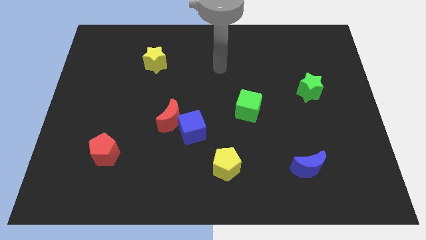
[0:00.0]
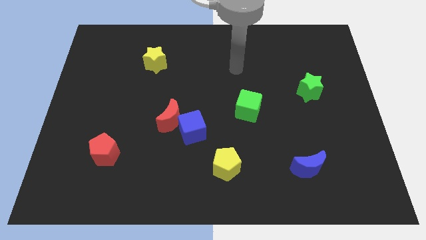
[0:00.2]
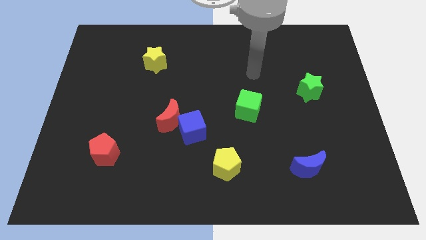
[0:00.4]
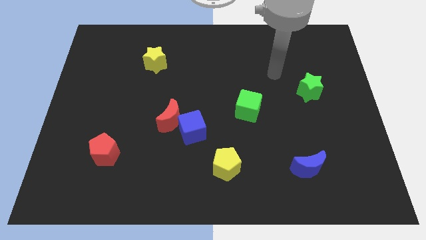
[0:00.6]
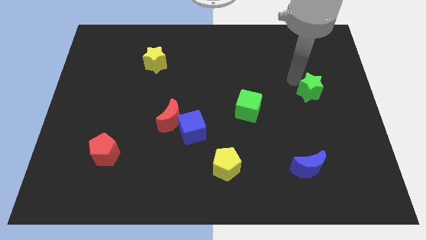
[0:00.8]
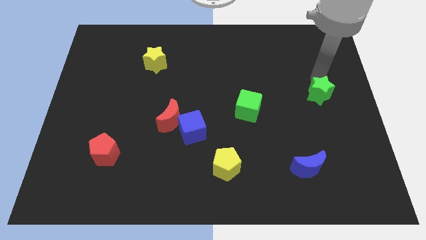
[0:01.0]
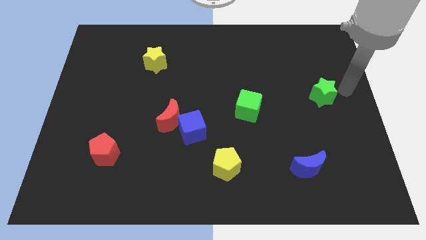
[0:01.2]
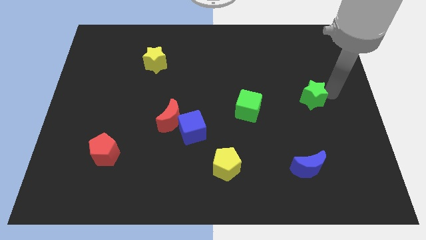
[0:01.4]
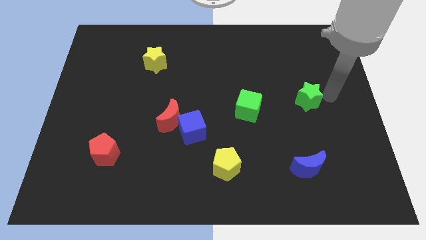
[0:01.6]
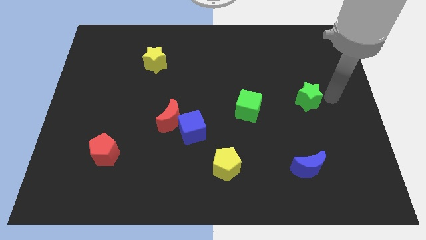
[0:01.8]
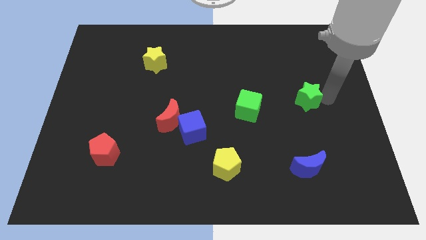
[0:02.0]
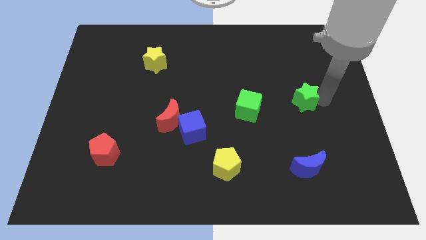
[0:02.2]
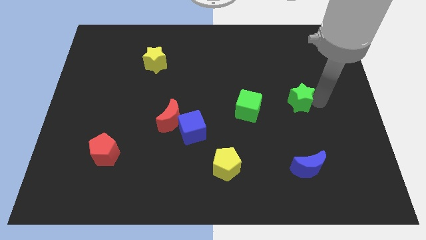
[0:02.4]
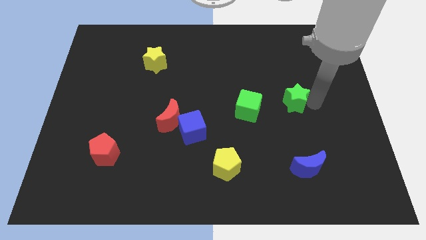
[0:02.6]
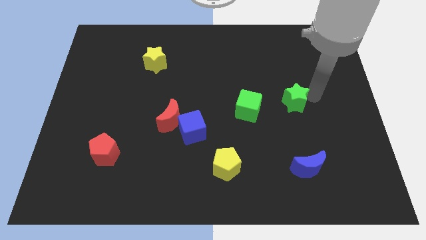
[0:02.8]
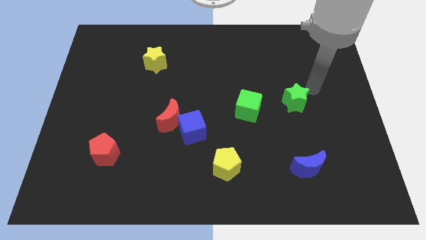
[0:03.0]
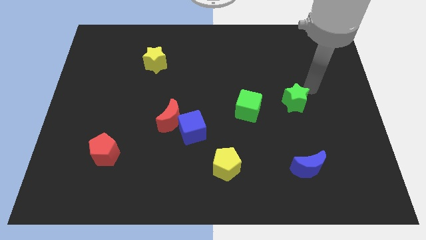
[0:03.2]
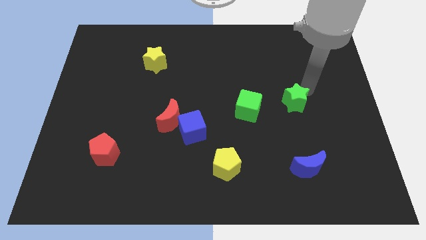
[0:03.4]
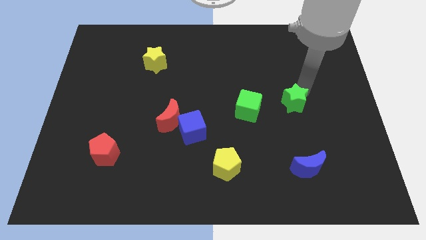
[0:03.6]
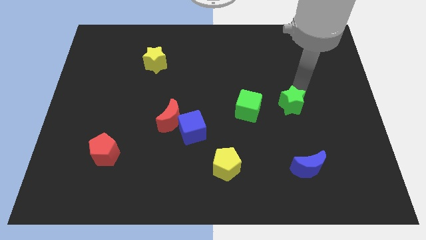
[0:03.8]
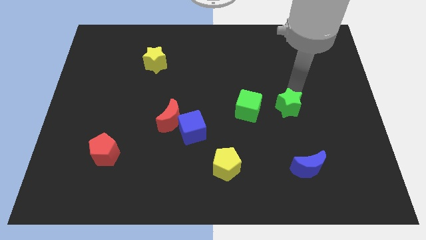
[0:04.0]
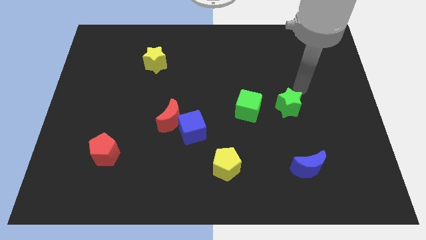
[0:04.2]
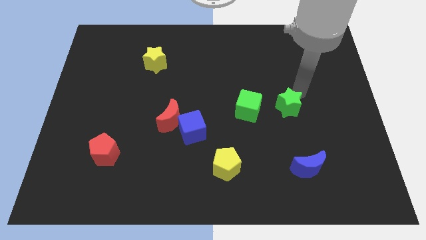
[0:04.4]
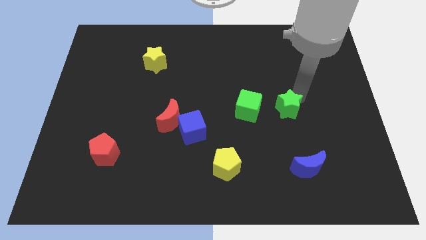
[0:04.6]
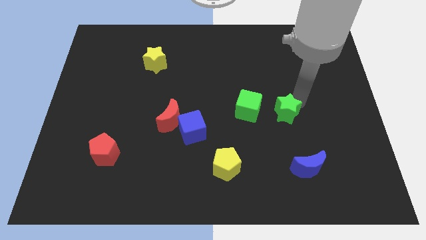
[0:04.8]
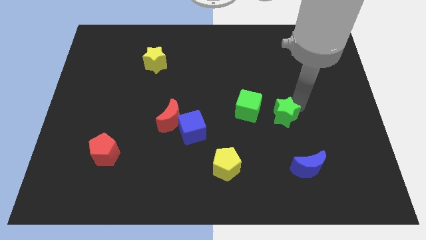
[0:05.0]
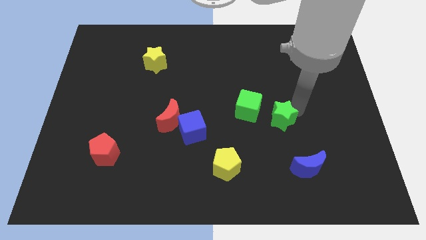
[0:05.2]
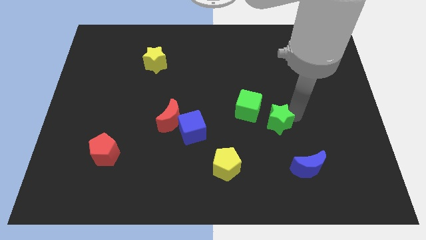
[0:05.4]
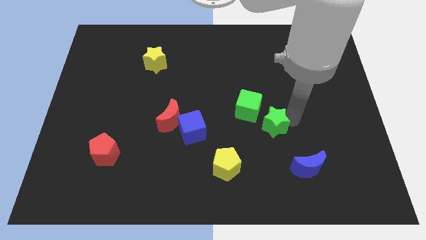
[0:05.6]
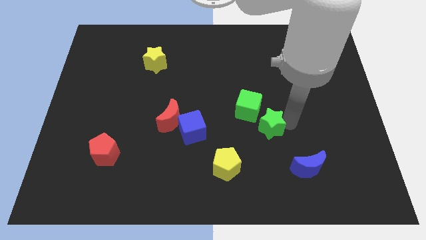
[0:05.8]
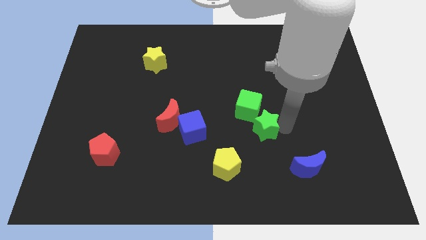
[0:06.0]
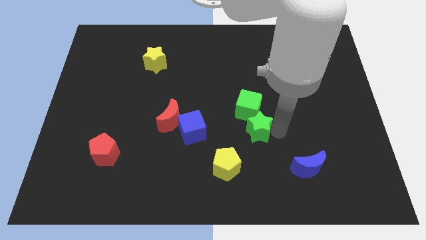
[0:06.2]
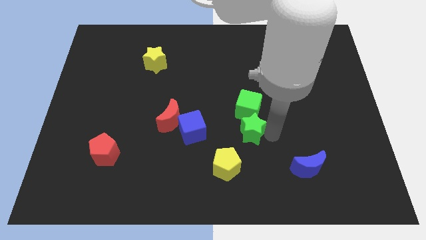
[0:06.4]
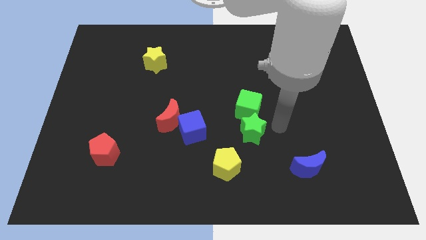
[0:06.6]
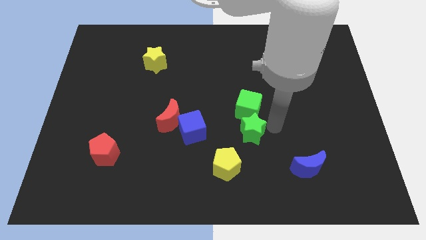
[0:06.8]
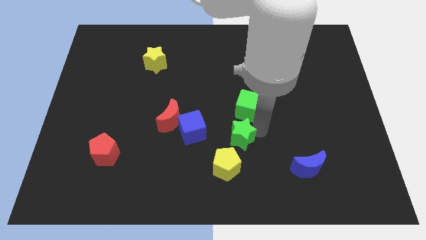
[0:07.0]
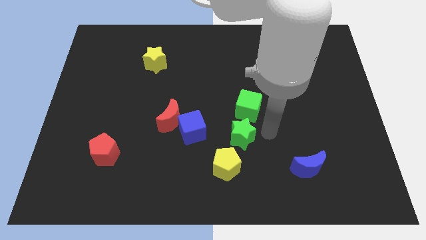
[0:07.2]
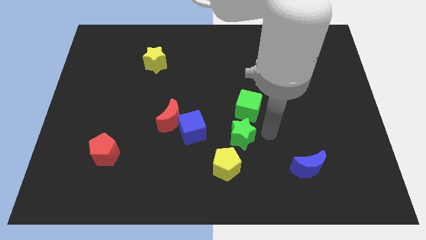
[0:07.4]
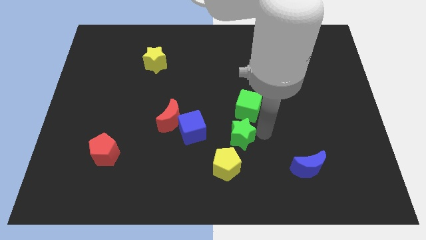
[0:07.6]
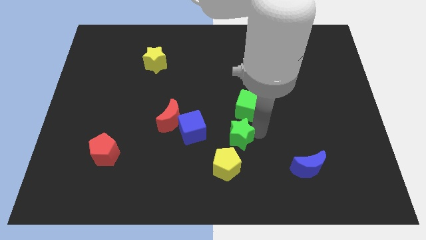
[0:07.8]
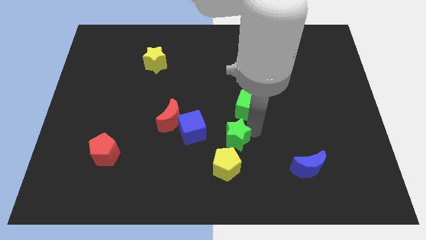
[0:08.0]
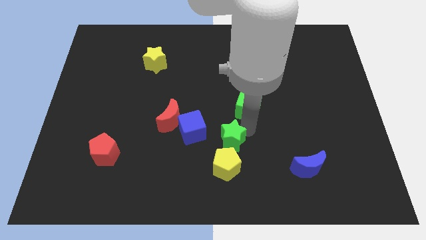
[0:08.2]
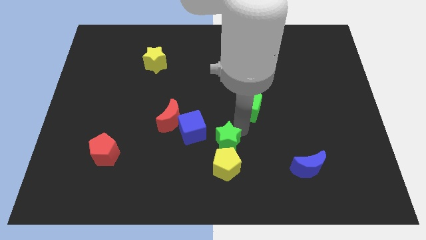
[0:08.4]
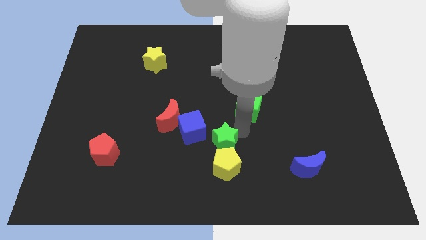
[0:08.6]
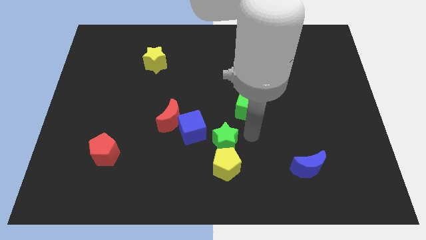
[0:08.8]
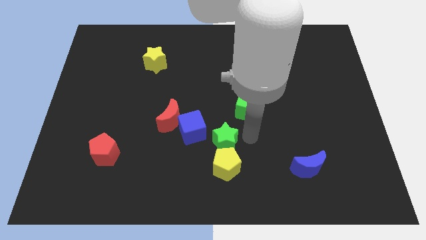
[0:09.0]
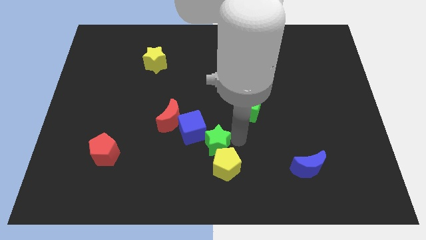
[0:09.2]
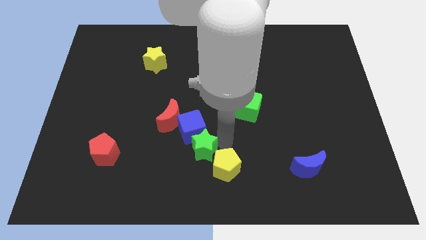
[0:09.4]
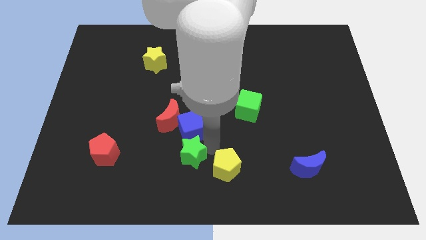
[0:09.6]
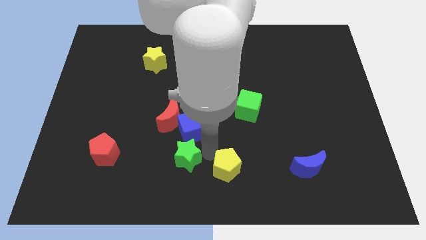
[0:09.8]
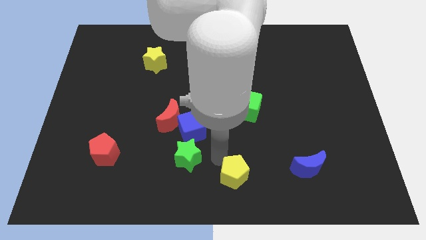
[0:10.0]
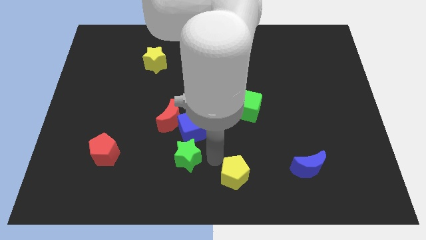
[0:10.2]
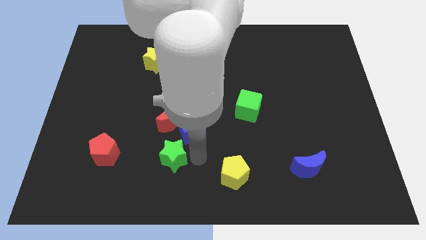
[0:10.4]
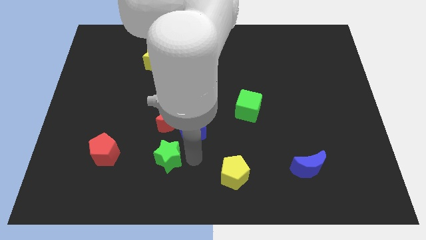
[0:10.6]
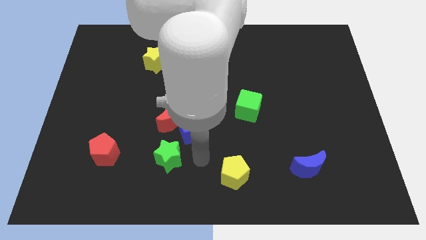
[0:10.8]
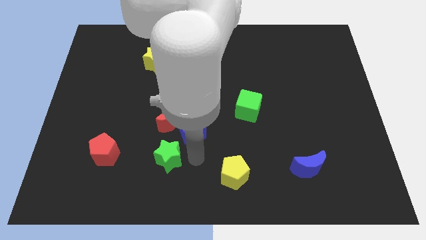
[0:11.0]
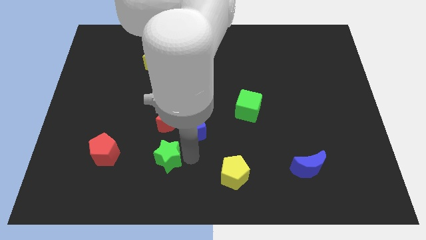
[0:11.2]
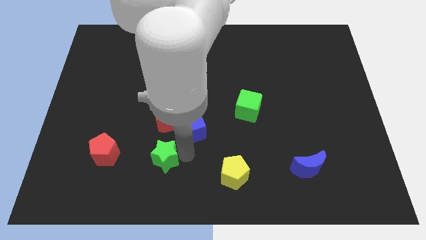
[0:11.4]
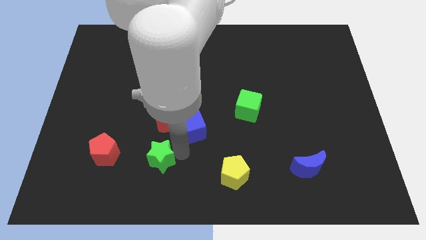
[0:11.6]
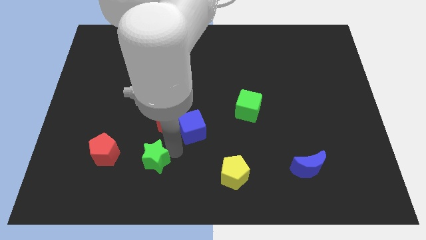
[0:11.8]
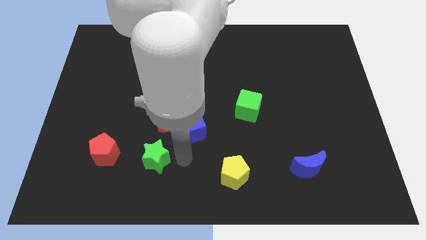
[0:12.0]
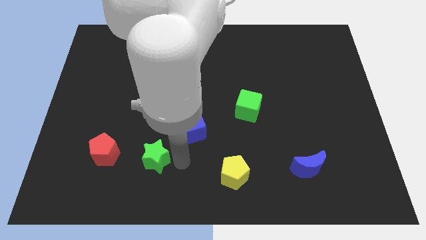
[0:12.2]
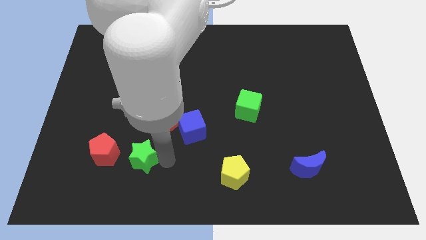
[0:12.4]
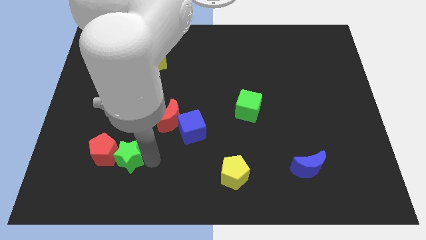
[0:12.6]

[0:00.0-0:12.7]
push the green star to the red pentagon
